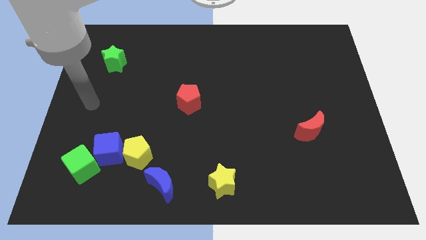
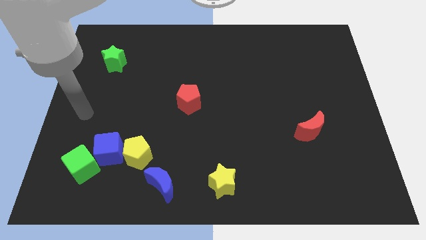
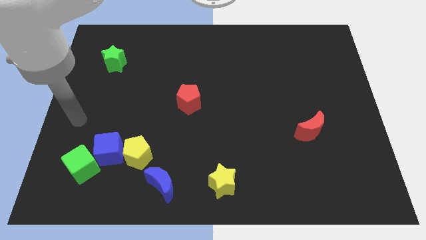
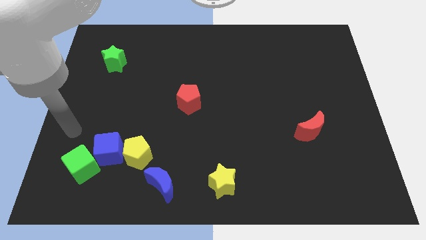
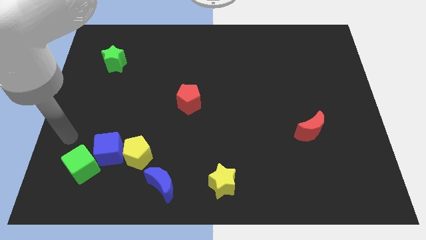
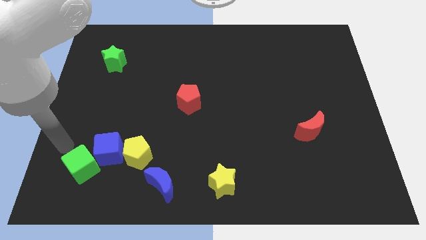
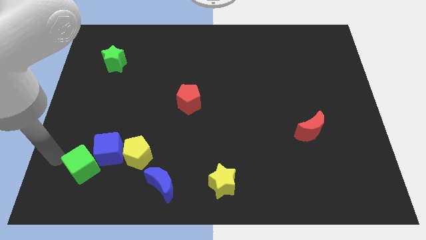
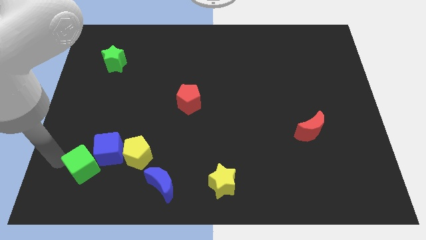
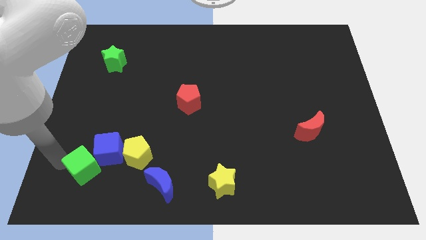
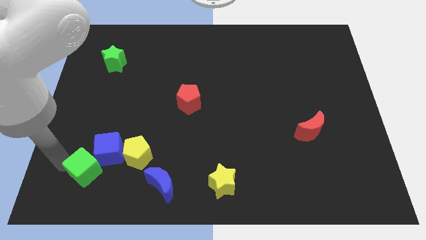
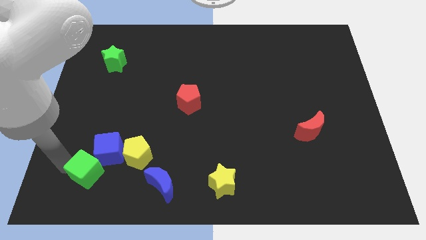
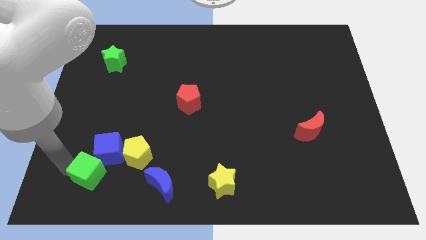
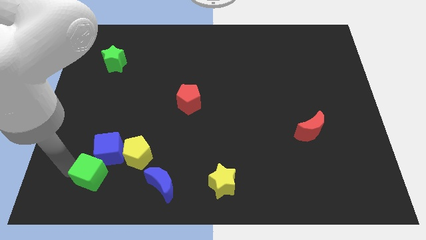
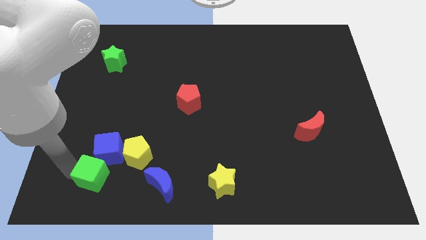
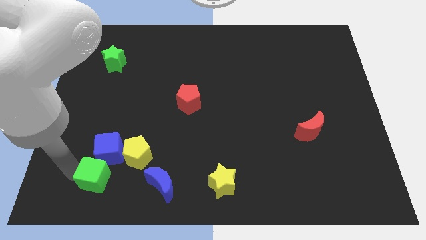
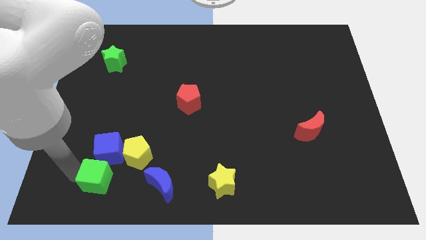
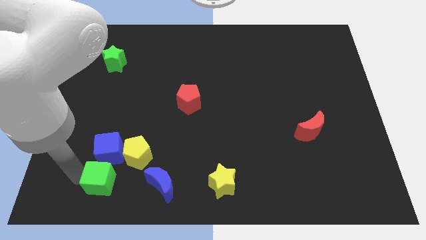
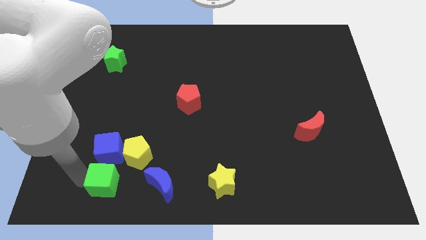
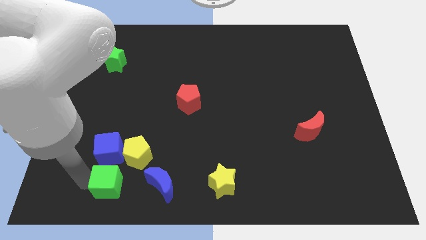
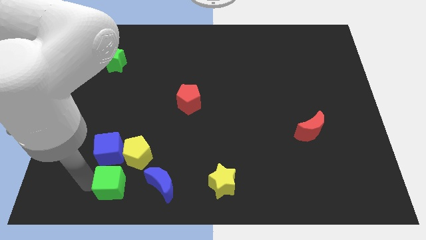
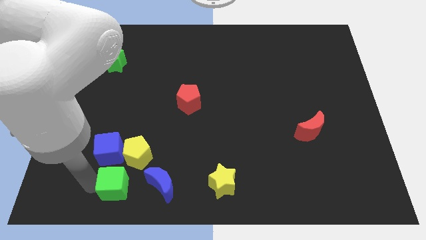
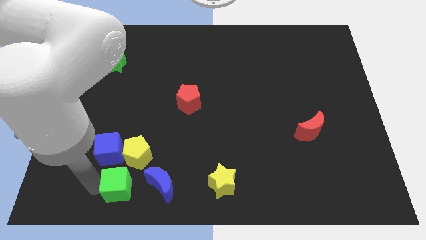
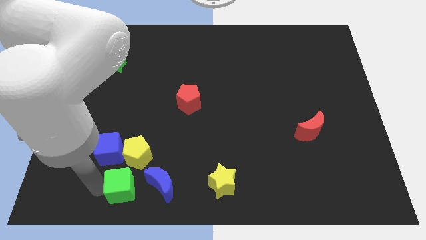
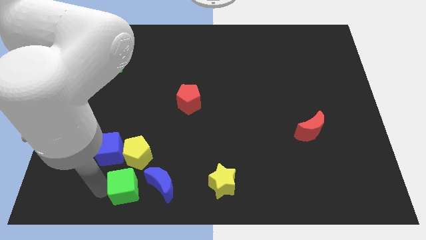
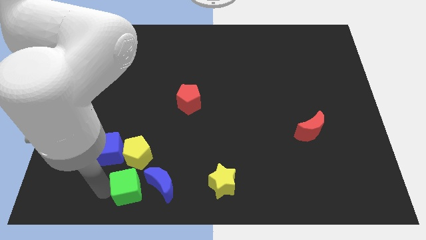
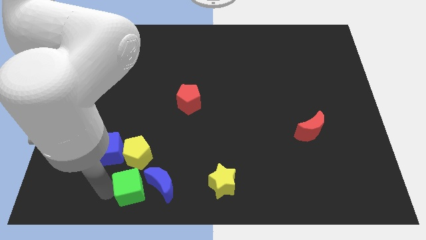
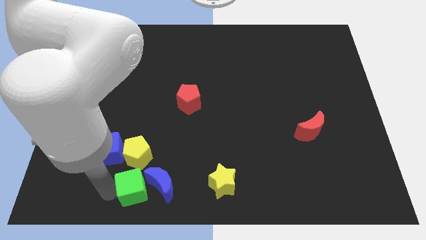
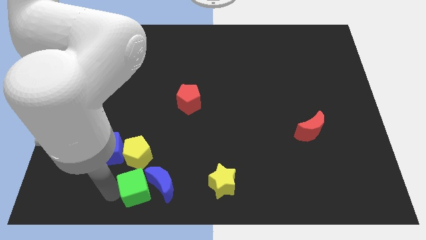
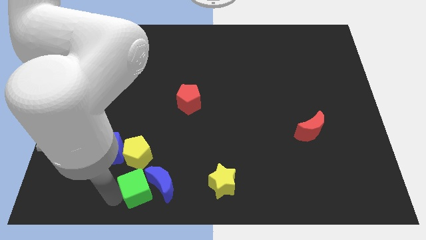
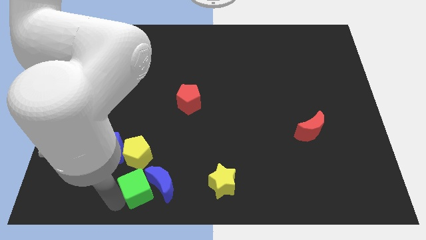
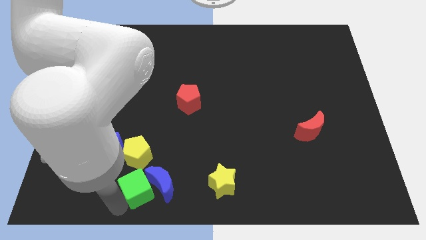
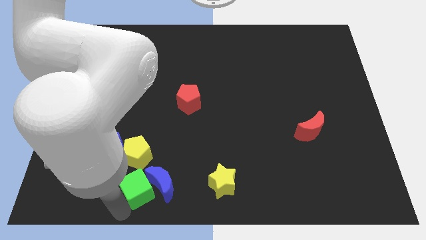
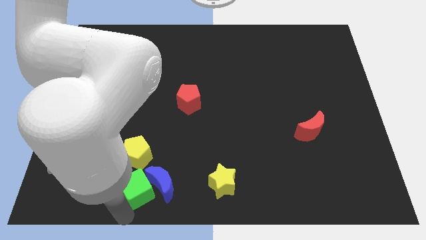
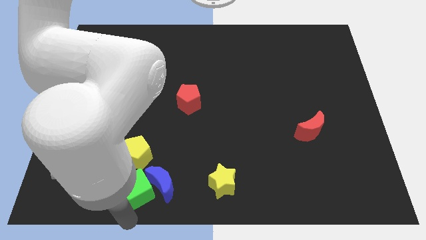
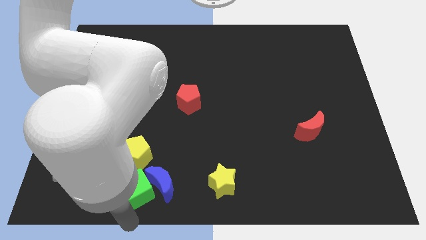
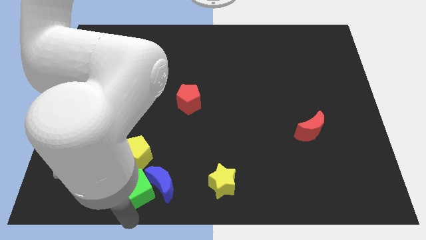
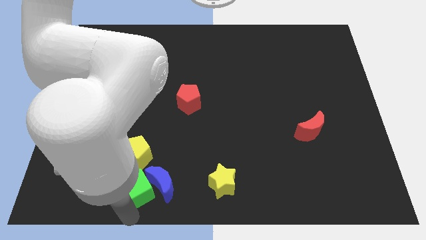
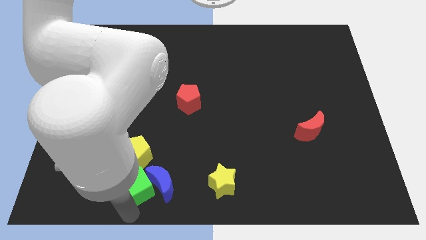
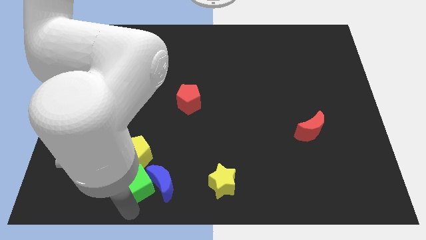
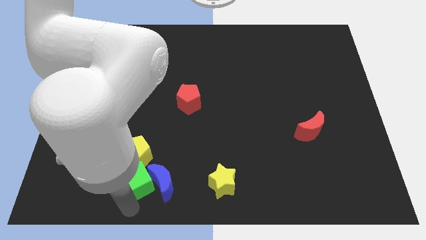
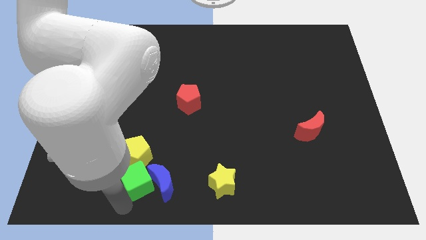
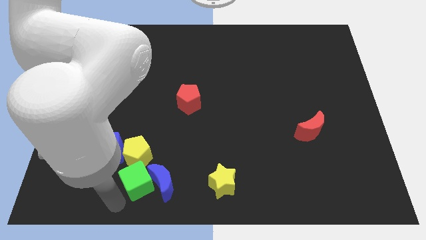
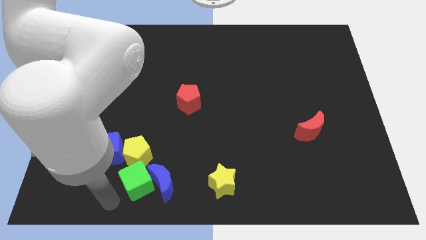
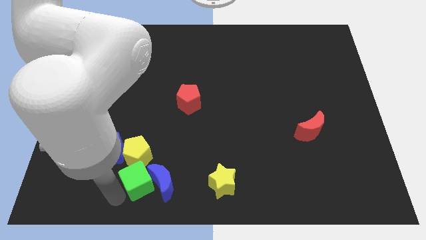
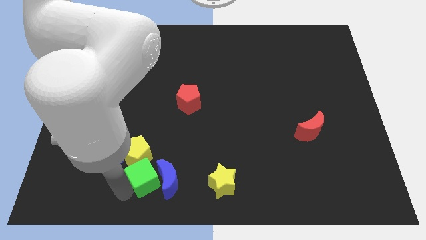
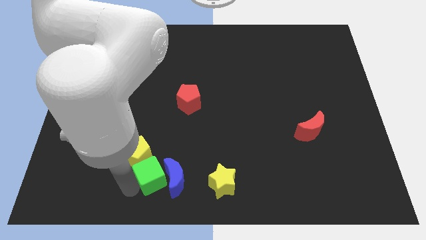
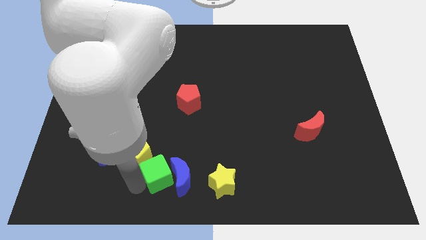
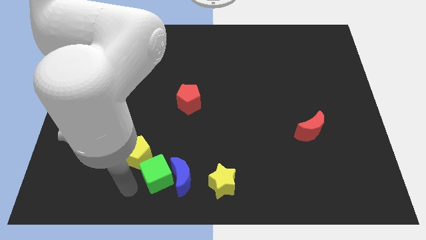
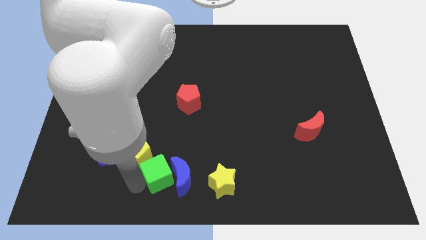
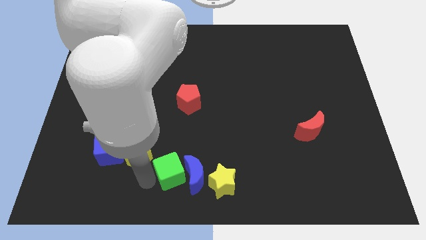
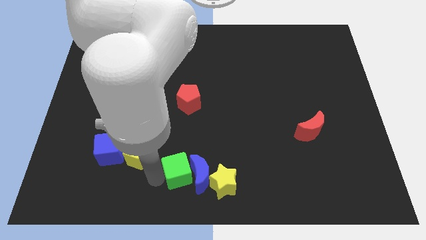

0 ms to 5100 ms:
slide the green cube to the right

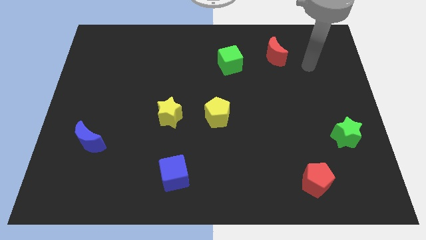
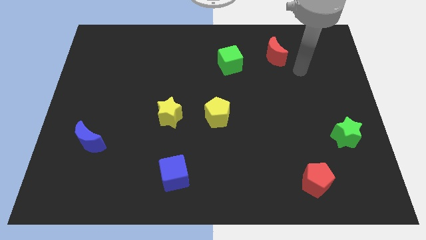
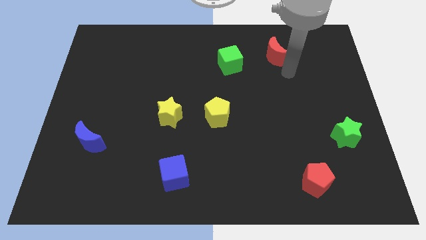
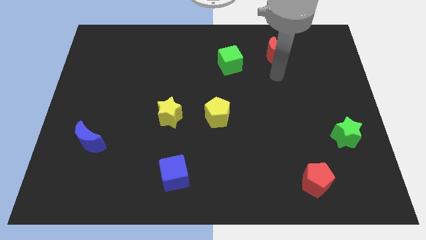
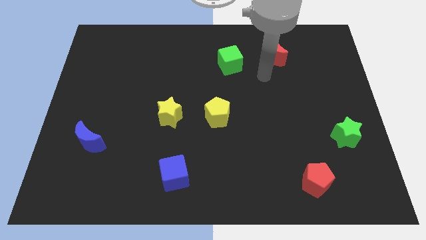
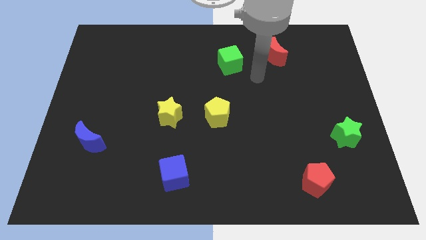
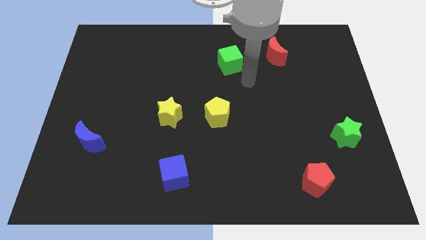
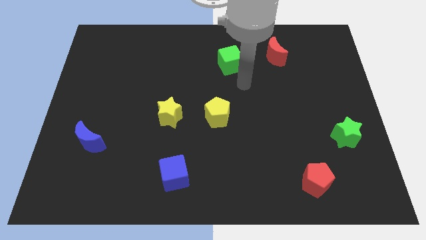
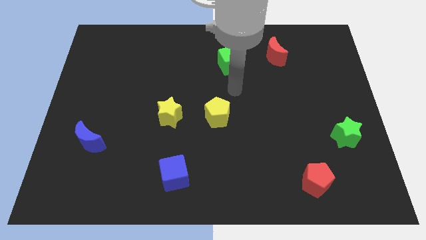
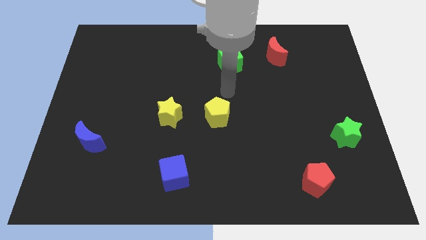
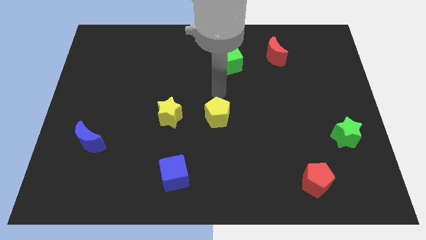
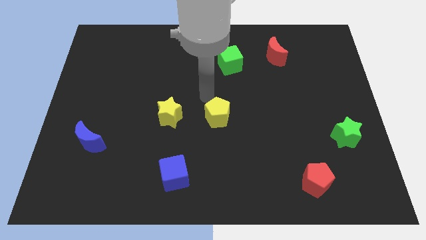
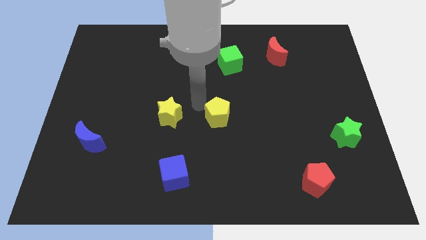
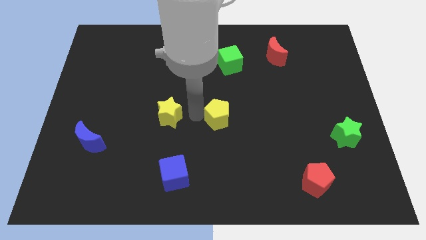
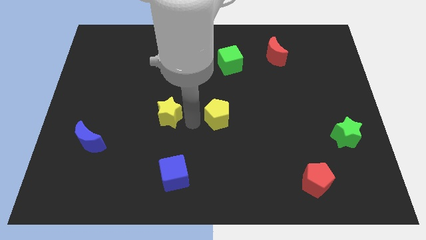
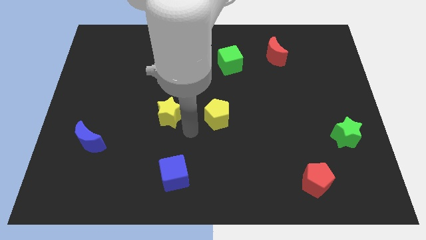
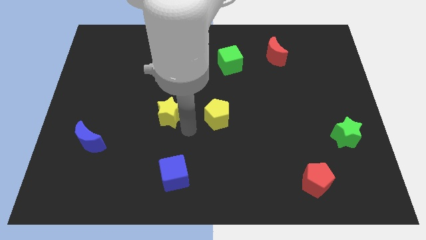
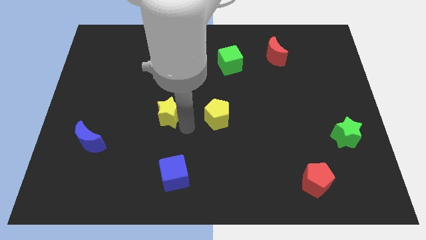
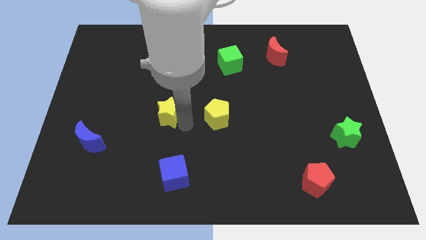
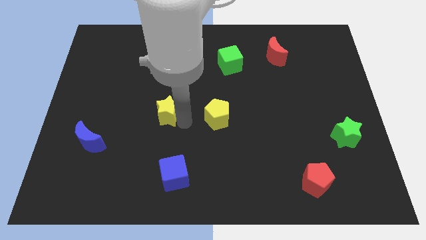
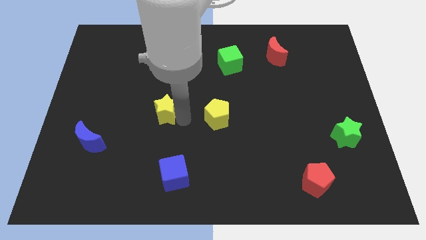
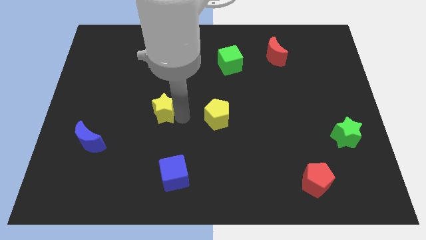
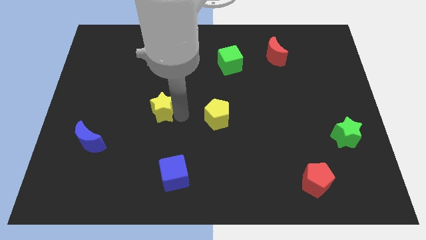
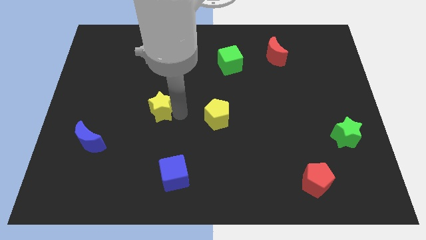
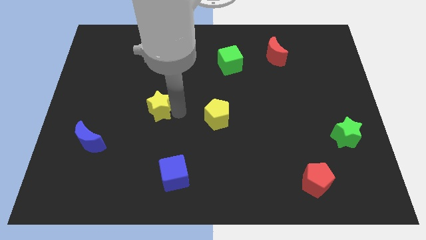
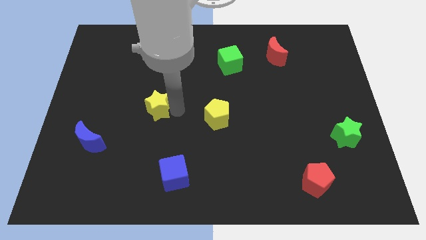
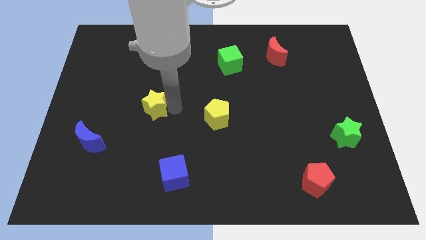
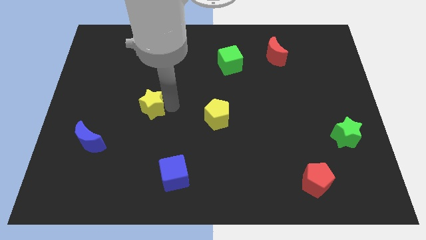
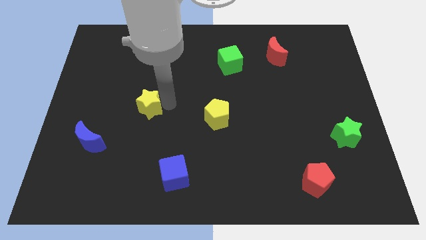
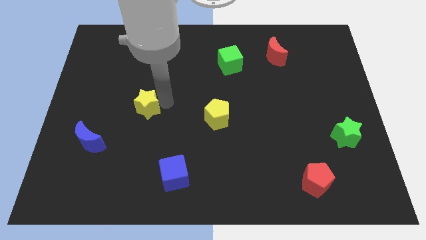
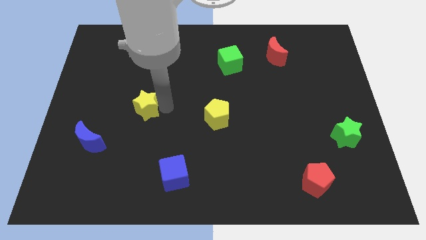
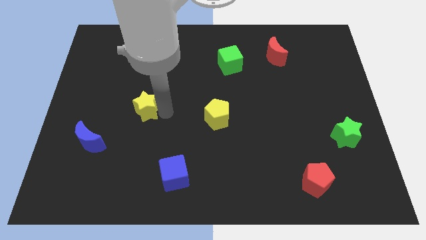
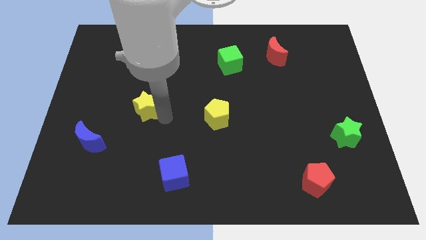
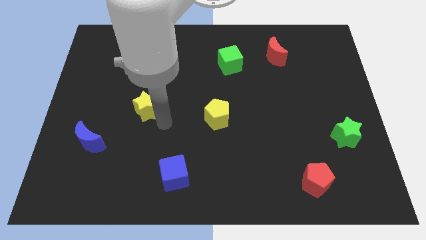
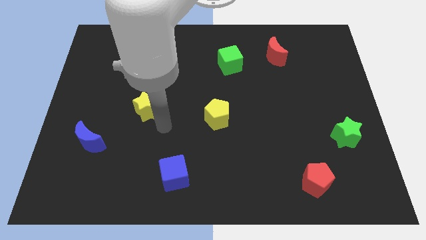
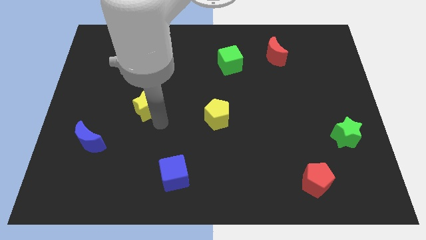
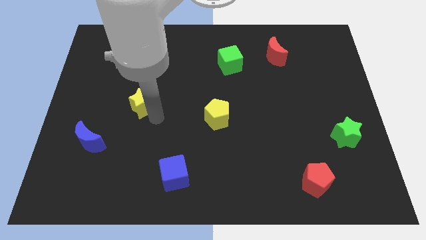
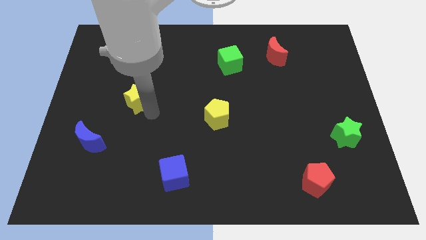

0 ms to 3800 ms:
push the yellow star up and left a little bit
